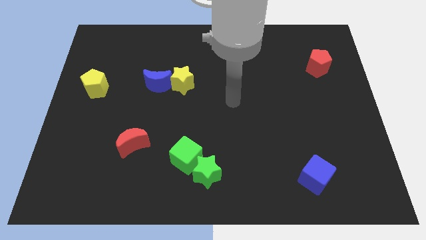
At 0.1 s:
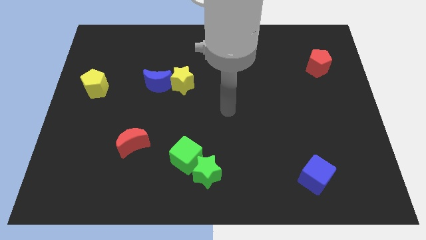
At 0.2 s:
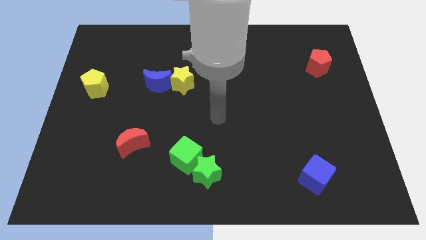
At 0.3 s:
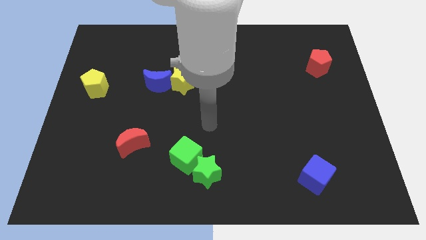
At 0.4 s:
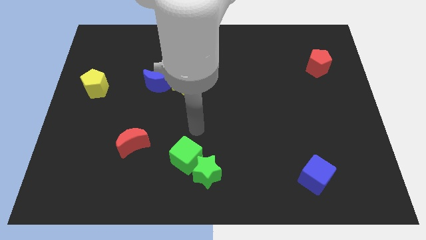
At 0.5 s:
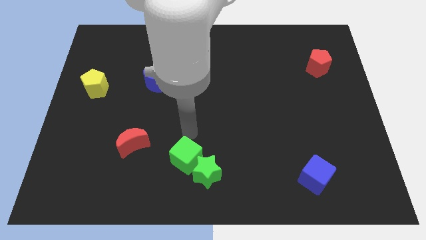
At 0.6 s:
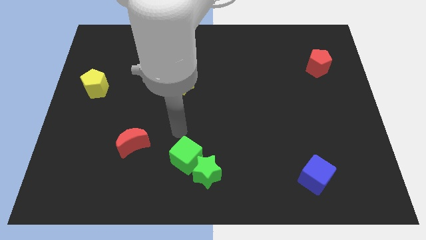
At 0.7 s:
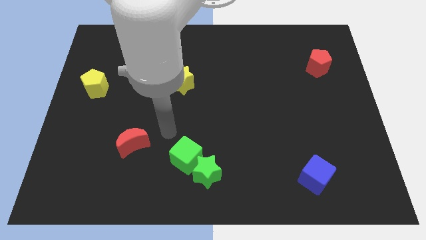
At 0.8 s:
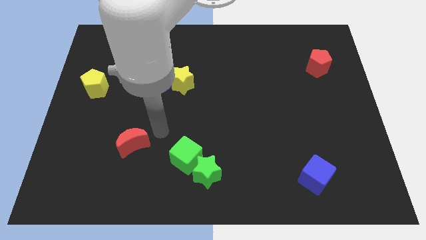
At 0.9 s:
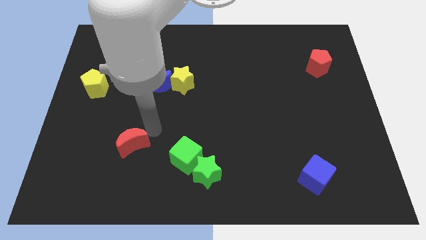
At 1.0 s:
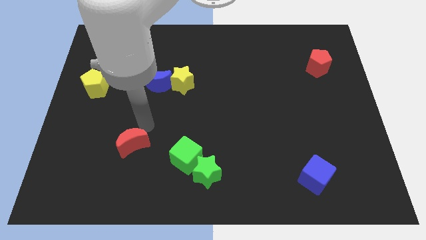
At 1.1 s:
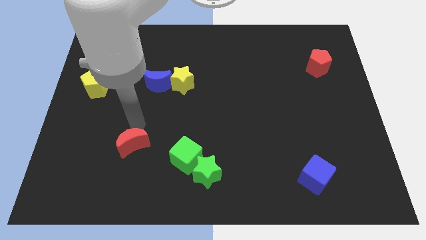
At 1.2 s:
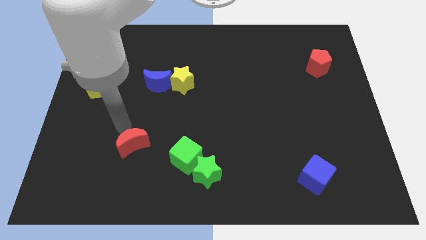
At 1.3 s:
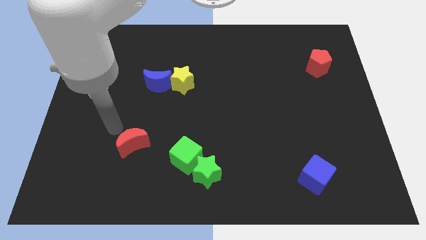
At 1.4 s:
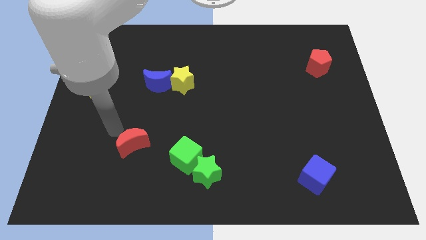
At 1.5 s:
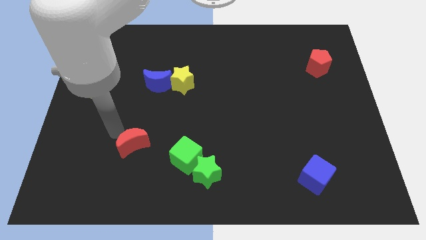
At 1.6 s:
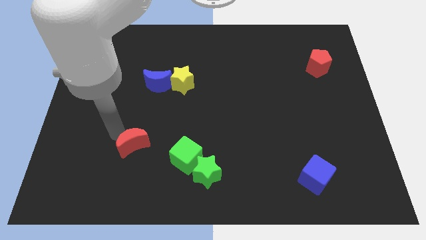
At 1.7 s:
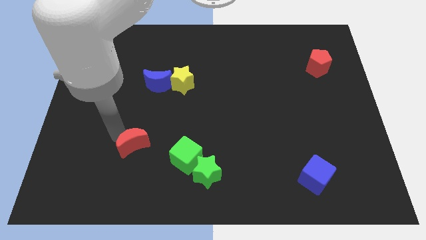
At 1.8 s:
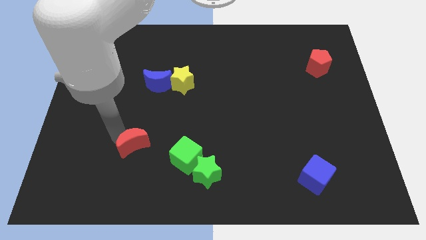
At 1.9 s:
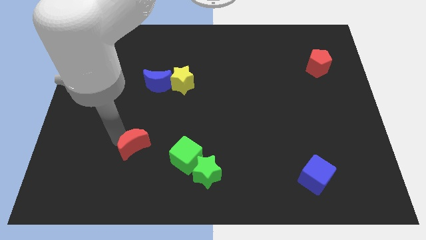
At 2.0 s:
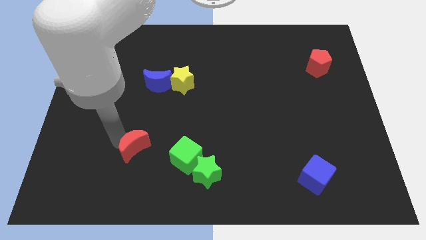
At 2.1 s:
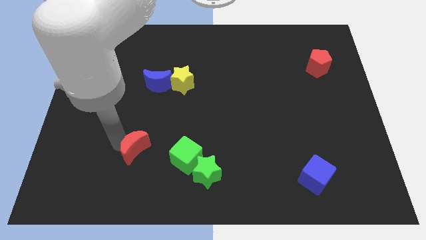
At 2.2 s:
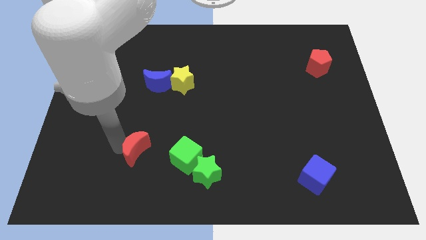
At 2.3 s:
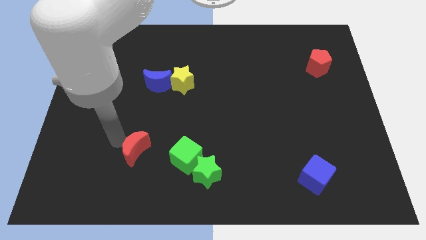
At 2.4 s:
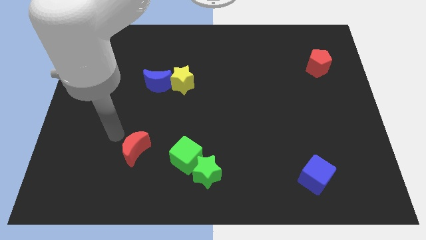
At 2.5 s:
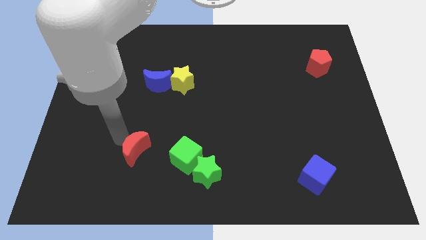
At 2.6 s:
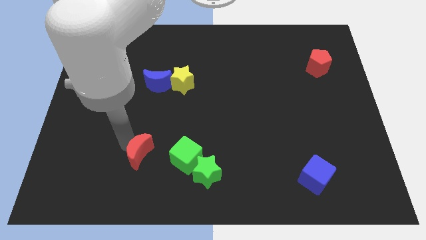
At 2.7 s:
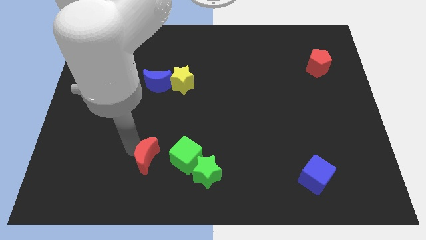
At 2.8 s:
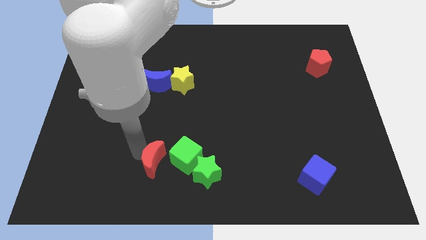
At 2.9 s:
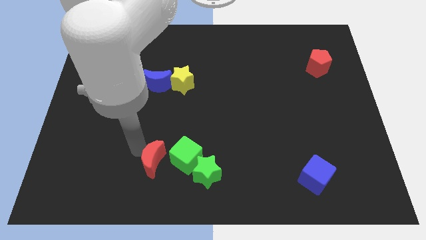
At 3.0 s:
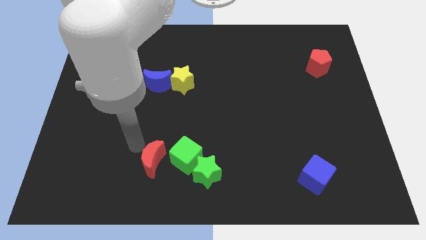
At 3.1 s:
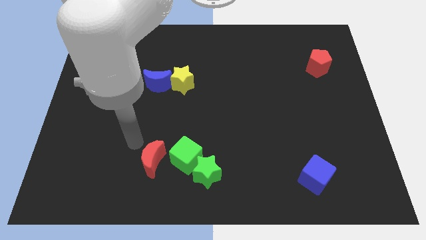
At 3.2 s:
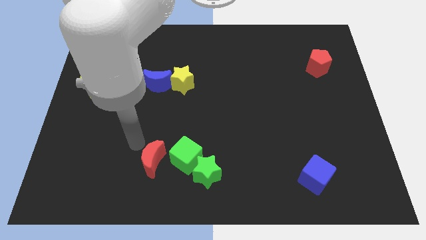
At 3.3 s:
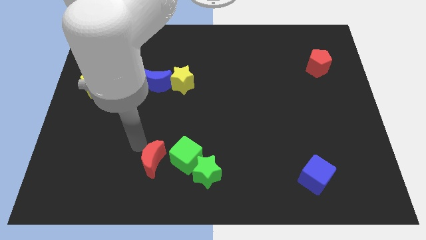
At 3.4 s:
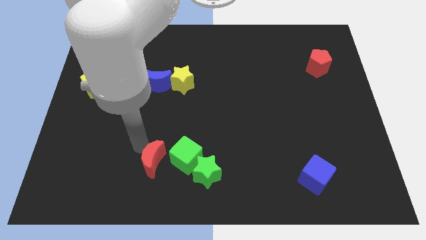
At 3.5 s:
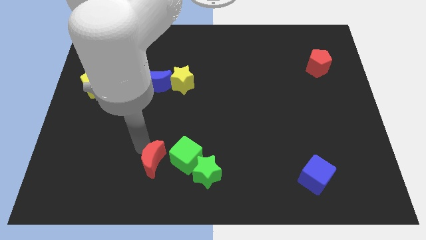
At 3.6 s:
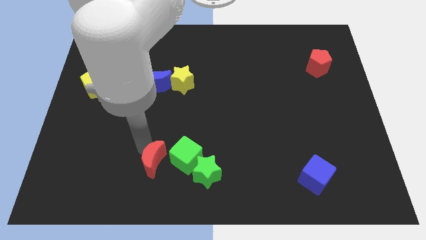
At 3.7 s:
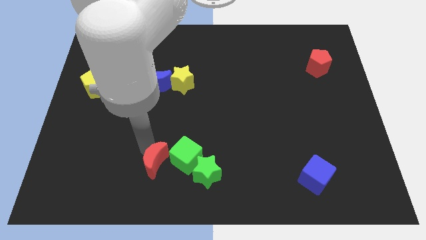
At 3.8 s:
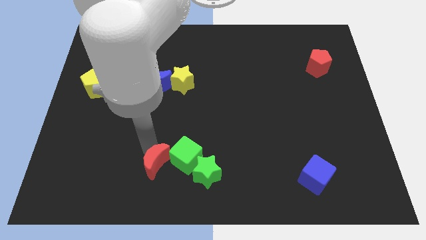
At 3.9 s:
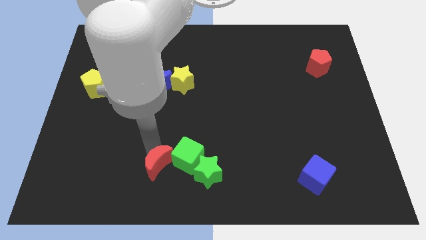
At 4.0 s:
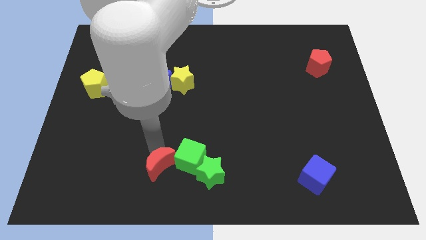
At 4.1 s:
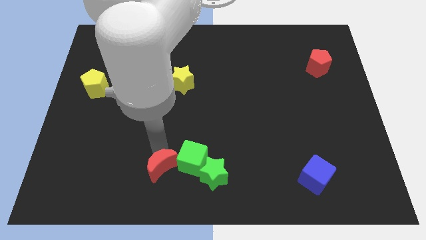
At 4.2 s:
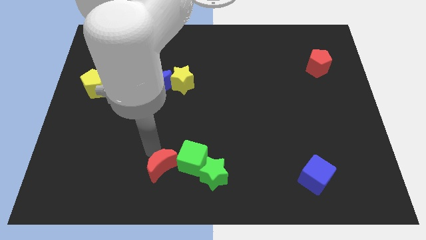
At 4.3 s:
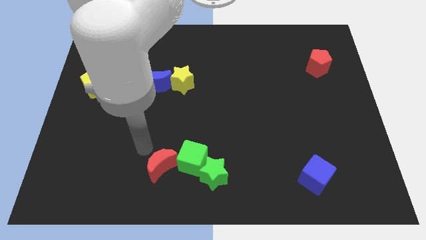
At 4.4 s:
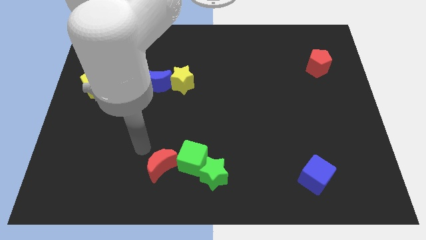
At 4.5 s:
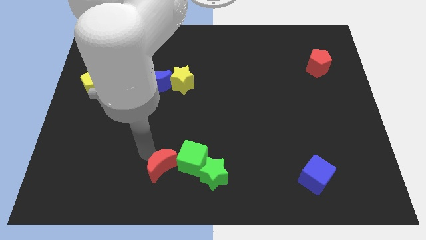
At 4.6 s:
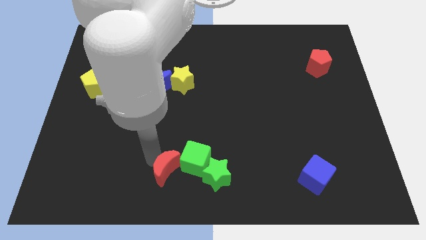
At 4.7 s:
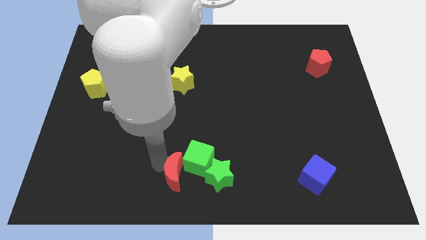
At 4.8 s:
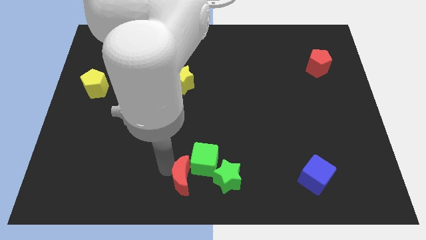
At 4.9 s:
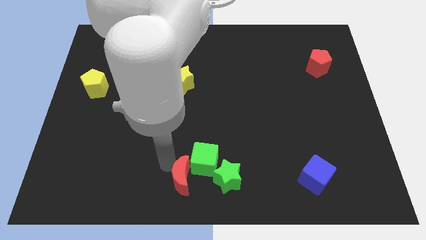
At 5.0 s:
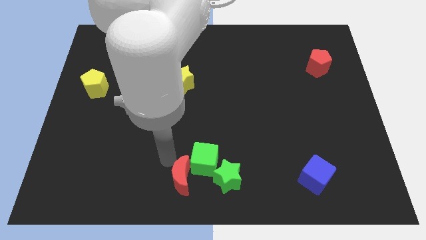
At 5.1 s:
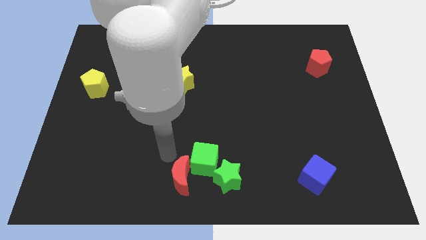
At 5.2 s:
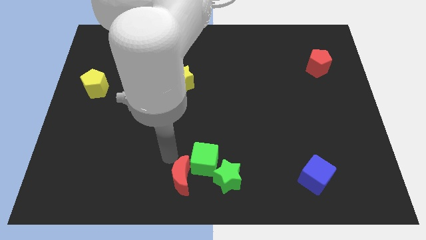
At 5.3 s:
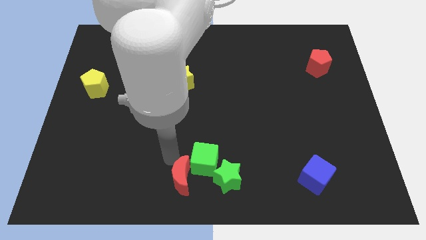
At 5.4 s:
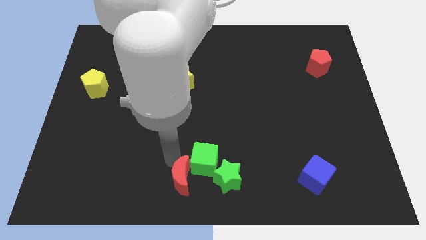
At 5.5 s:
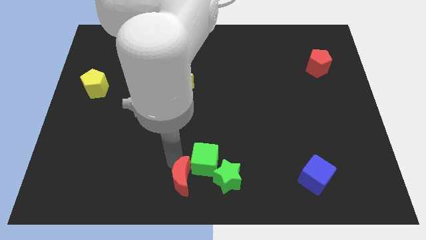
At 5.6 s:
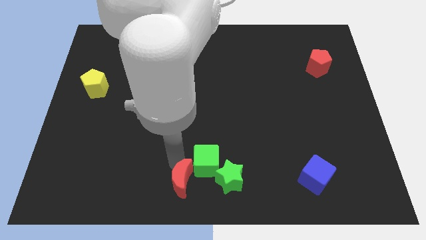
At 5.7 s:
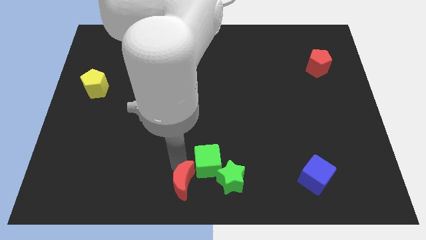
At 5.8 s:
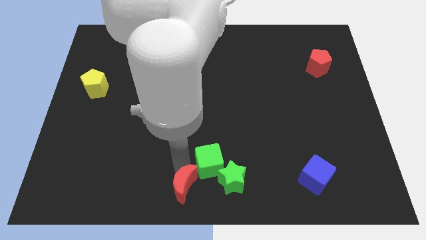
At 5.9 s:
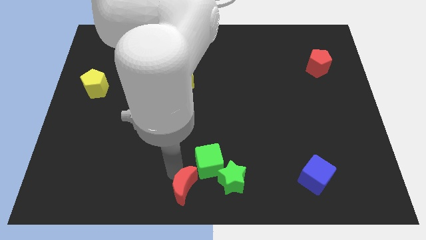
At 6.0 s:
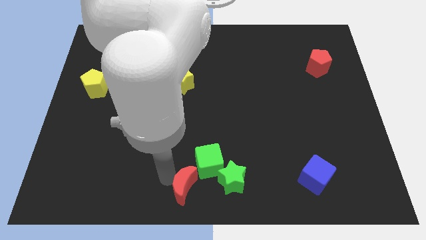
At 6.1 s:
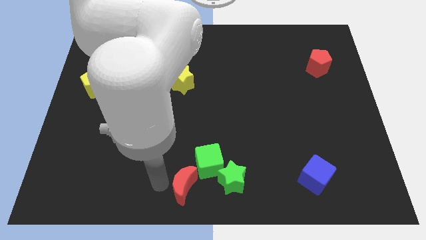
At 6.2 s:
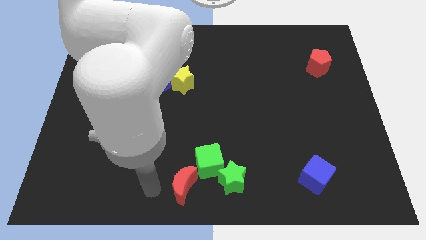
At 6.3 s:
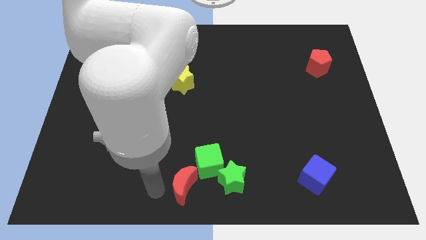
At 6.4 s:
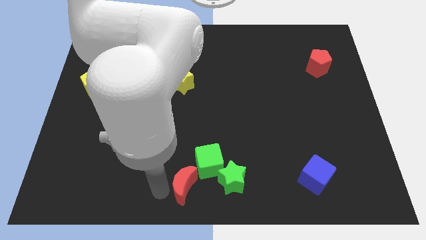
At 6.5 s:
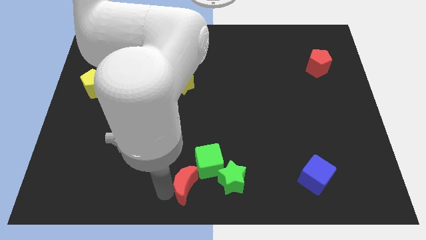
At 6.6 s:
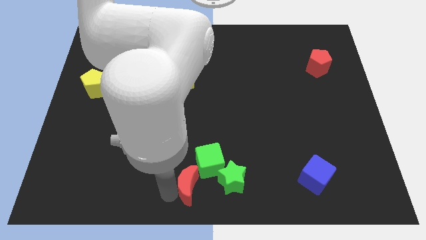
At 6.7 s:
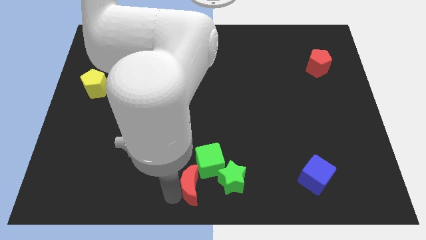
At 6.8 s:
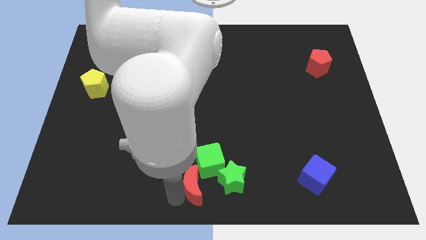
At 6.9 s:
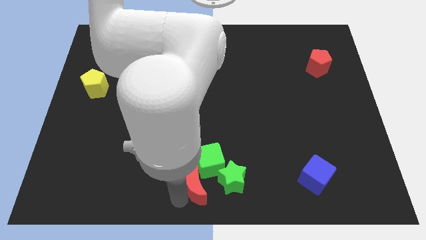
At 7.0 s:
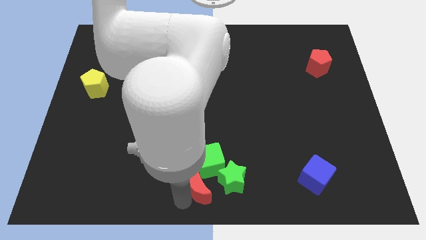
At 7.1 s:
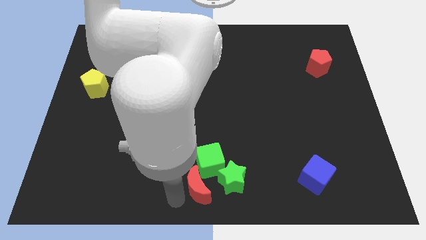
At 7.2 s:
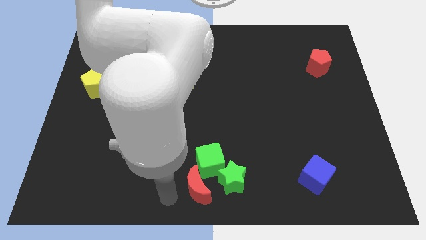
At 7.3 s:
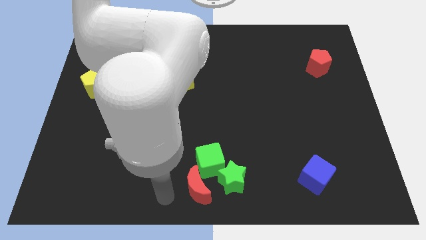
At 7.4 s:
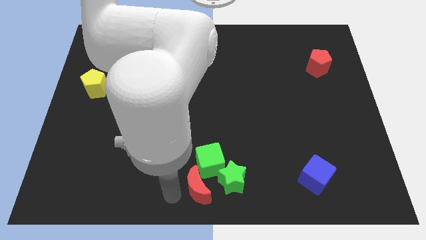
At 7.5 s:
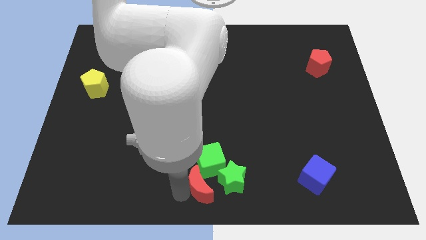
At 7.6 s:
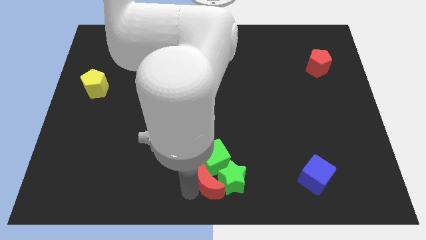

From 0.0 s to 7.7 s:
push the red moon towards the green star
